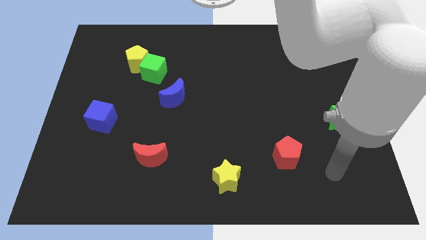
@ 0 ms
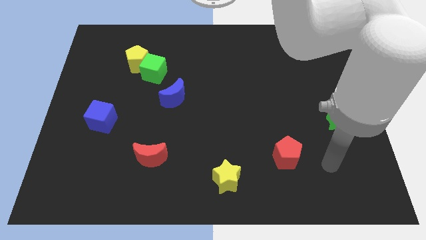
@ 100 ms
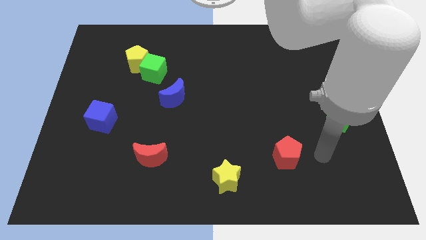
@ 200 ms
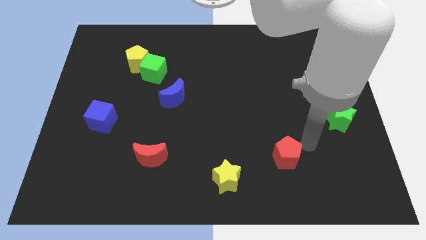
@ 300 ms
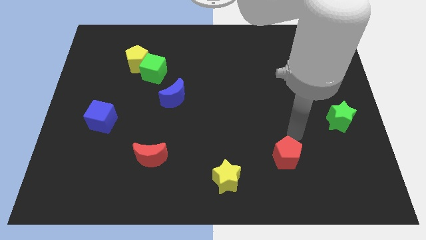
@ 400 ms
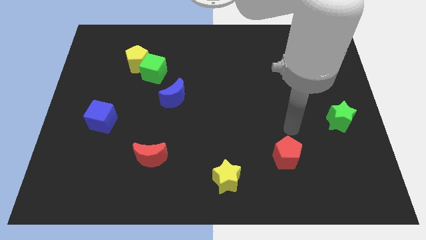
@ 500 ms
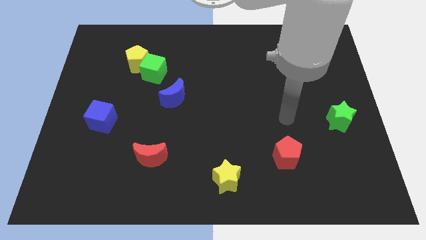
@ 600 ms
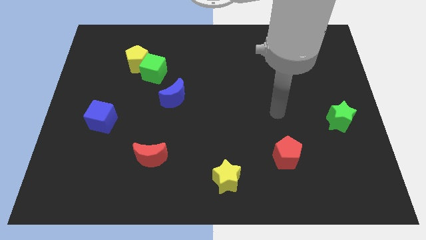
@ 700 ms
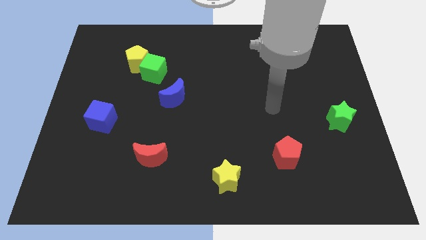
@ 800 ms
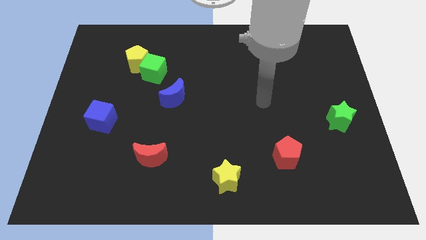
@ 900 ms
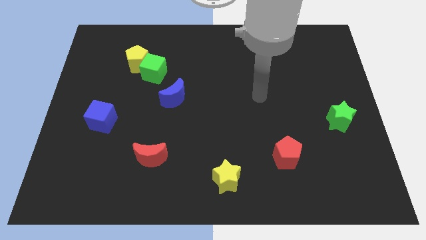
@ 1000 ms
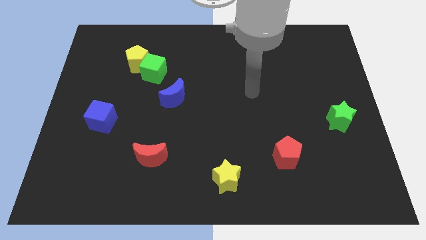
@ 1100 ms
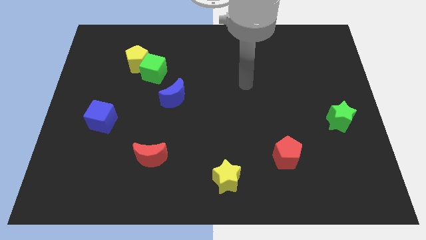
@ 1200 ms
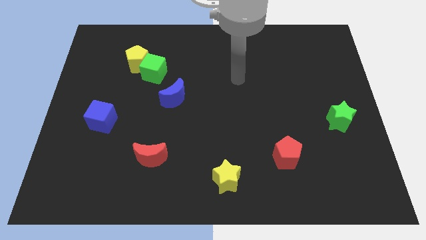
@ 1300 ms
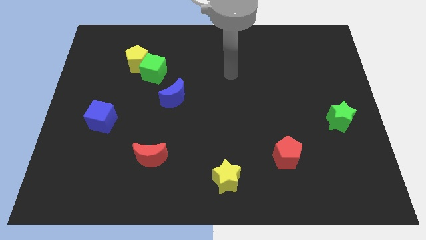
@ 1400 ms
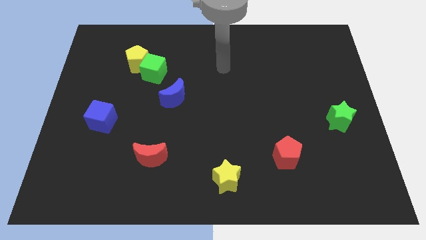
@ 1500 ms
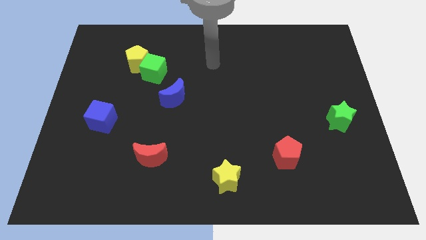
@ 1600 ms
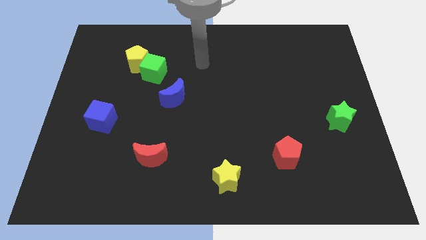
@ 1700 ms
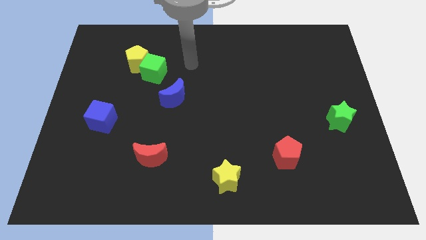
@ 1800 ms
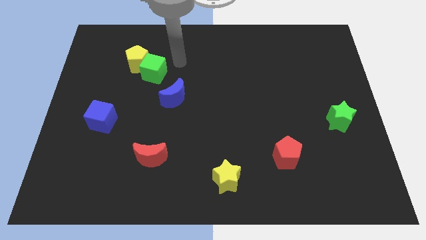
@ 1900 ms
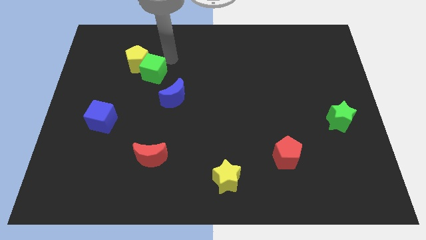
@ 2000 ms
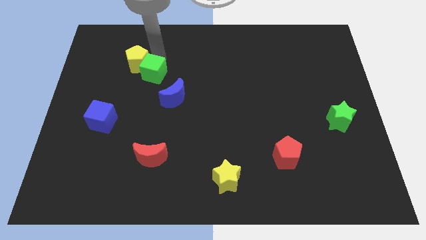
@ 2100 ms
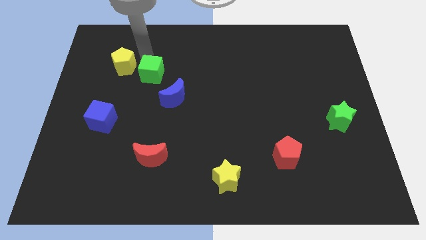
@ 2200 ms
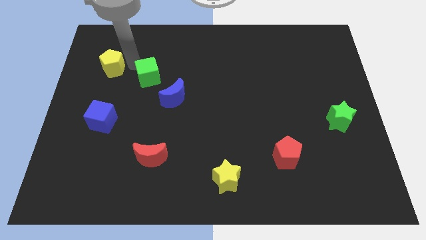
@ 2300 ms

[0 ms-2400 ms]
separate the green cube from the yellow pentagon

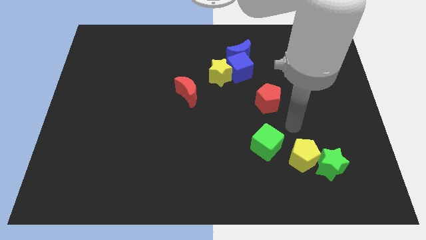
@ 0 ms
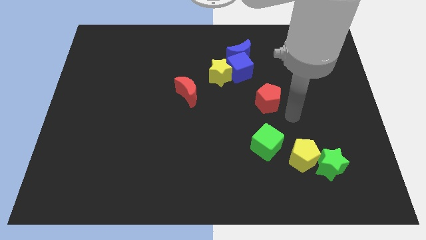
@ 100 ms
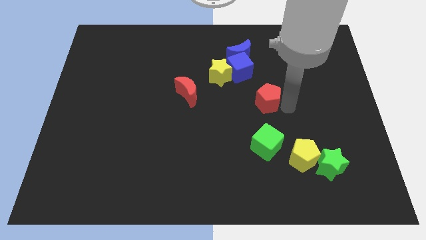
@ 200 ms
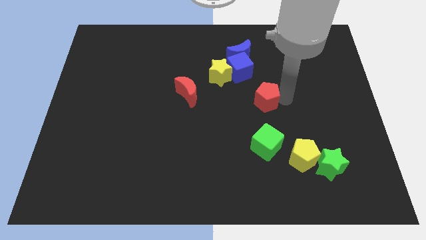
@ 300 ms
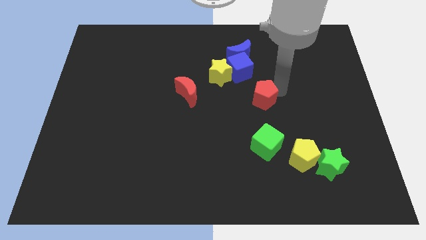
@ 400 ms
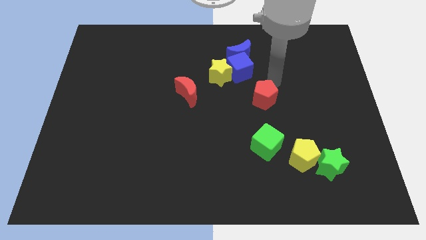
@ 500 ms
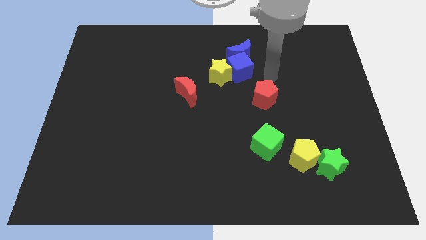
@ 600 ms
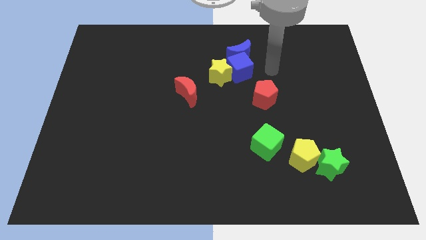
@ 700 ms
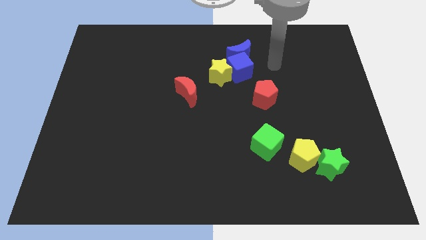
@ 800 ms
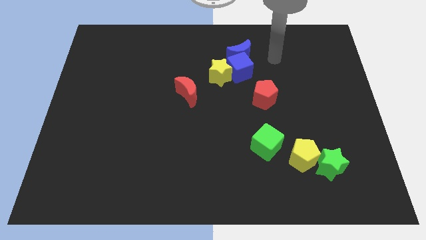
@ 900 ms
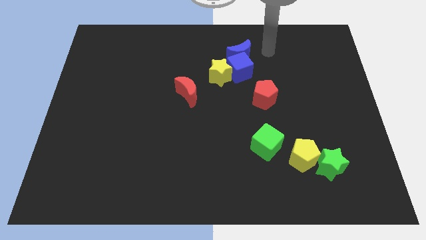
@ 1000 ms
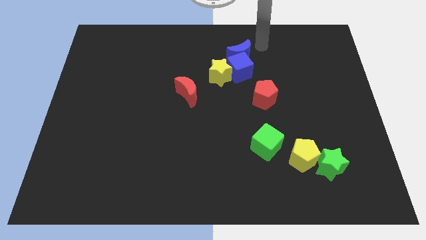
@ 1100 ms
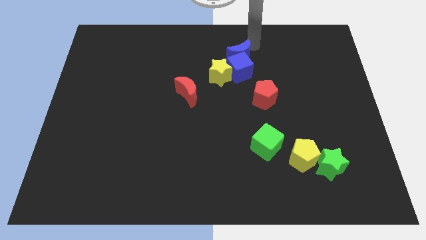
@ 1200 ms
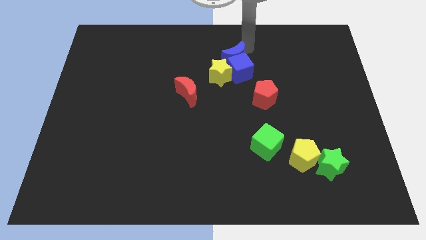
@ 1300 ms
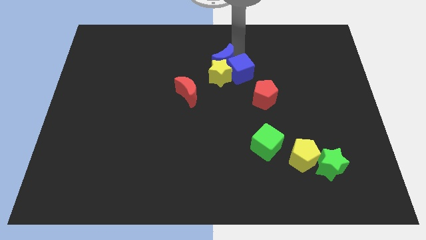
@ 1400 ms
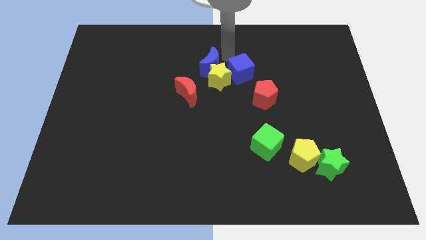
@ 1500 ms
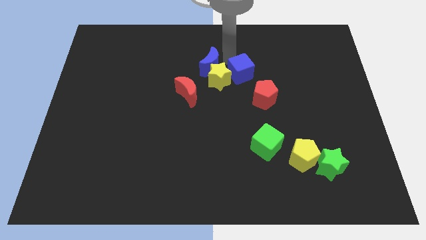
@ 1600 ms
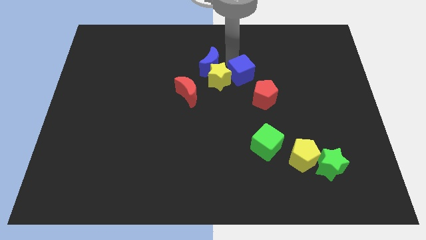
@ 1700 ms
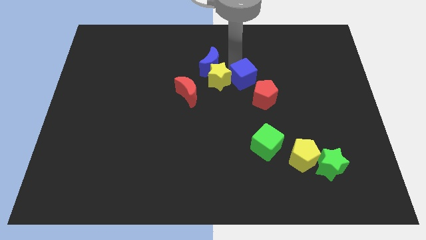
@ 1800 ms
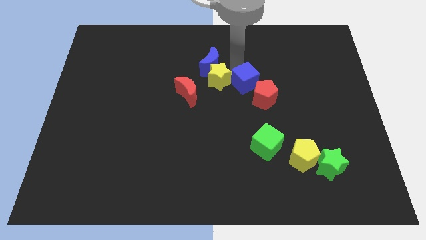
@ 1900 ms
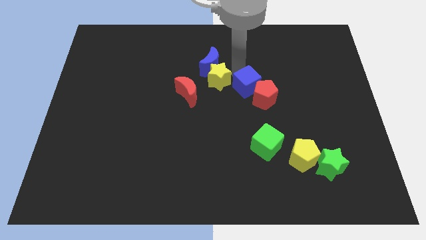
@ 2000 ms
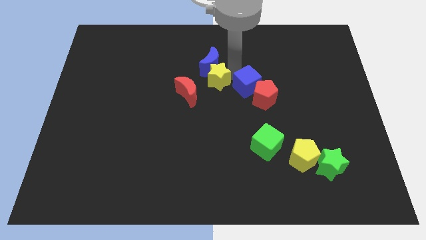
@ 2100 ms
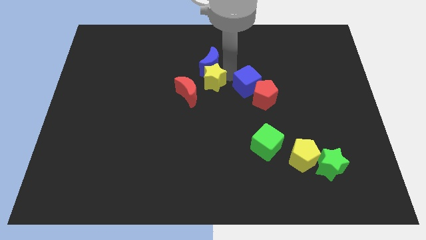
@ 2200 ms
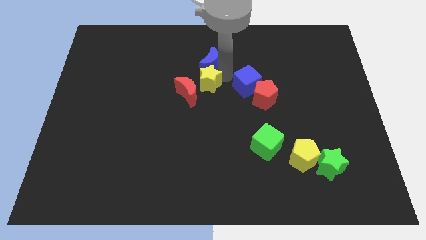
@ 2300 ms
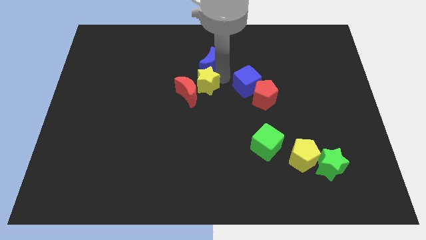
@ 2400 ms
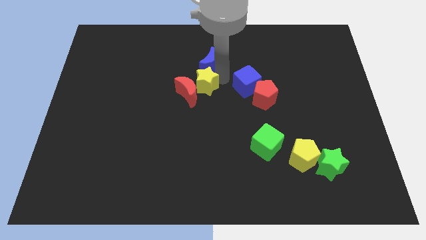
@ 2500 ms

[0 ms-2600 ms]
move the blue cube away from the blue moon and yellow star

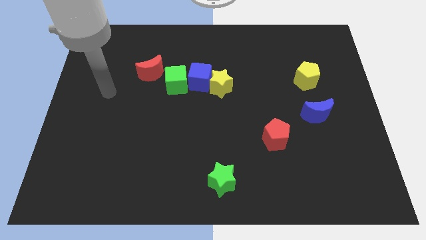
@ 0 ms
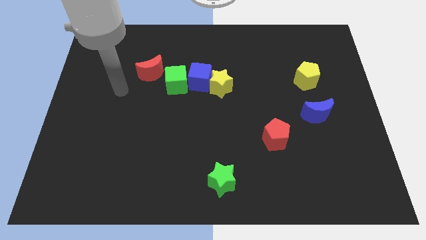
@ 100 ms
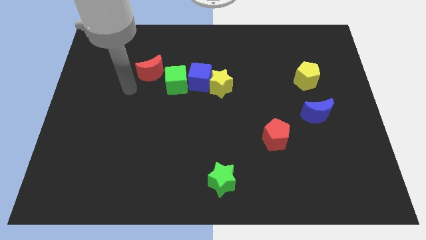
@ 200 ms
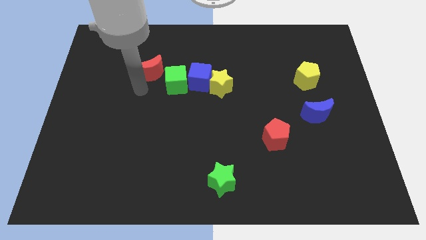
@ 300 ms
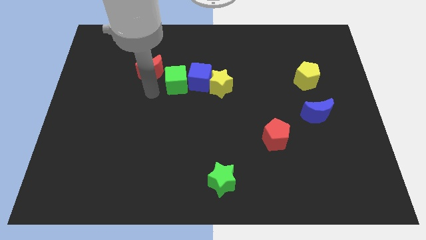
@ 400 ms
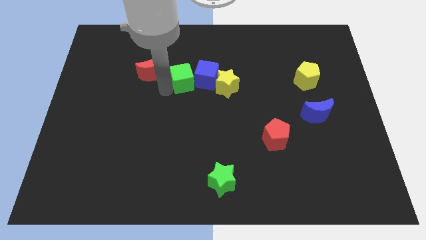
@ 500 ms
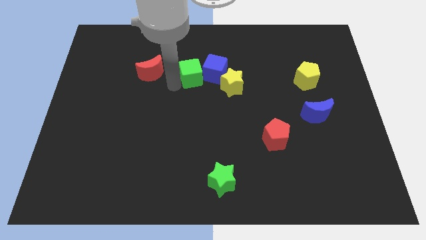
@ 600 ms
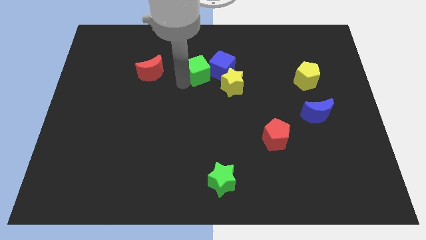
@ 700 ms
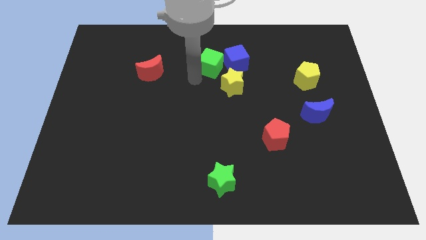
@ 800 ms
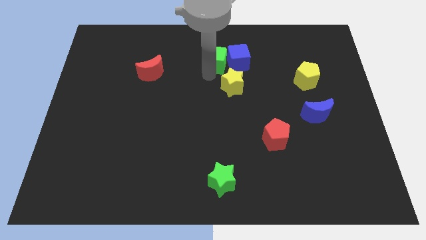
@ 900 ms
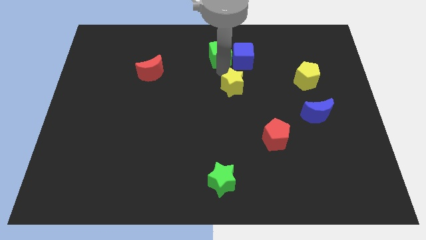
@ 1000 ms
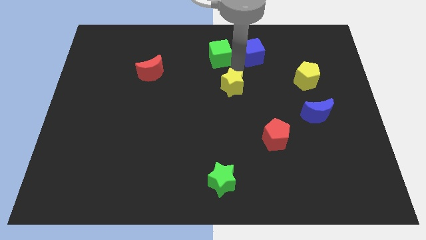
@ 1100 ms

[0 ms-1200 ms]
pull the yellow star apart from the blue cube

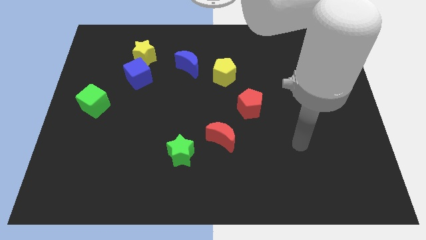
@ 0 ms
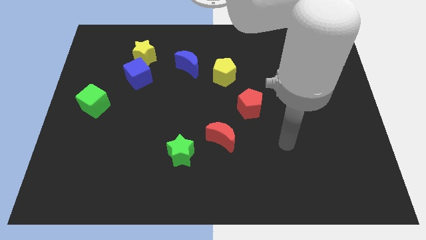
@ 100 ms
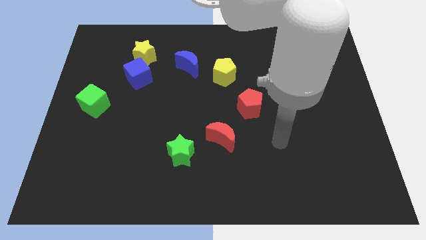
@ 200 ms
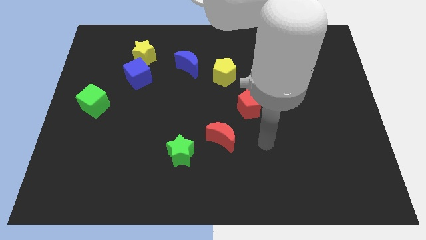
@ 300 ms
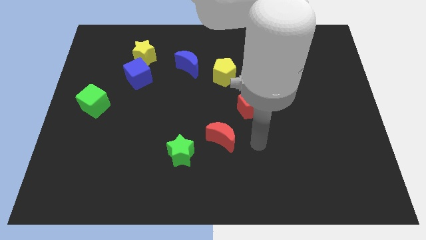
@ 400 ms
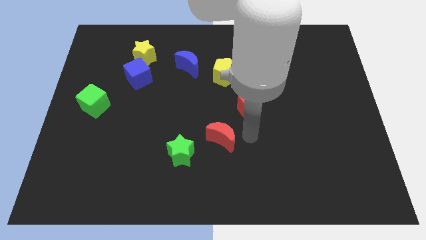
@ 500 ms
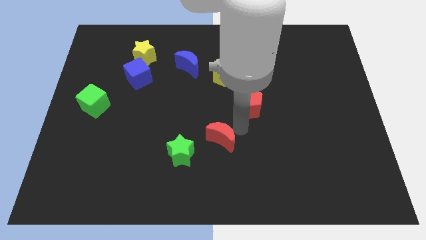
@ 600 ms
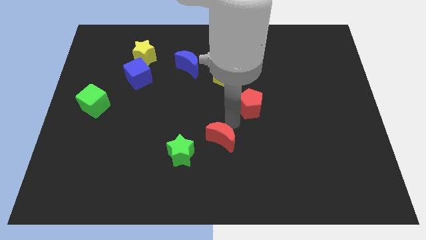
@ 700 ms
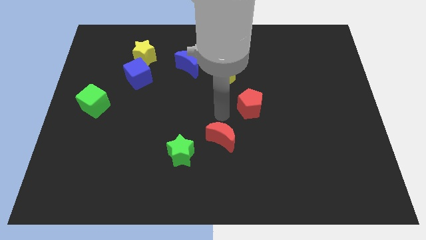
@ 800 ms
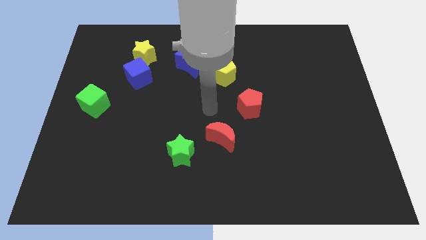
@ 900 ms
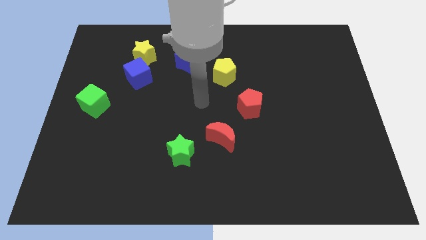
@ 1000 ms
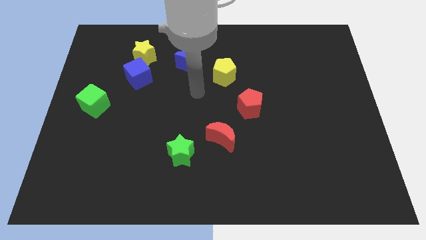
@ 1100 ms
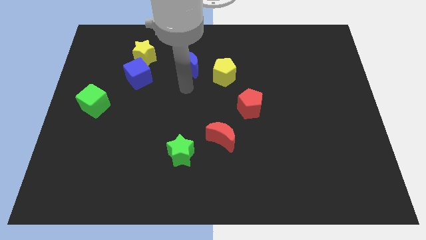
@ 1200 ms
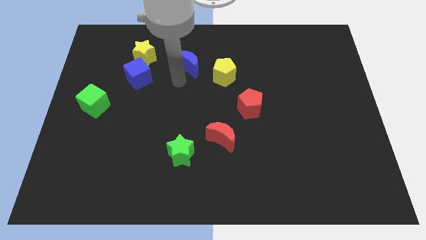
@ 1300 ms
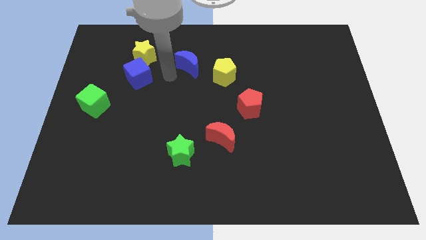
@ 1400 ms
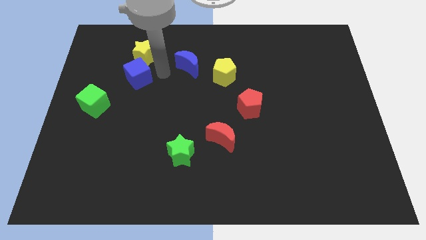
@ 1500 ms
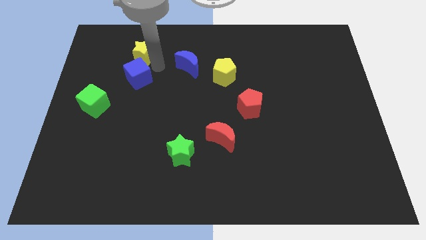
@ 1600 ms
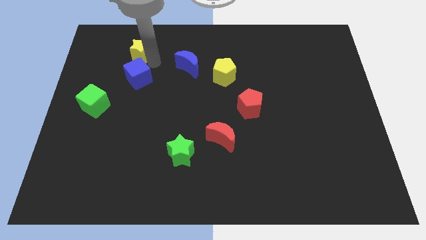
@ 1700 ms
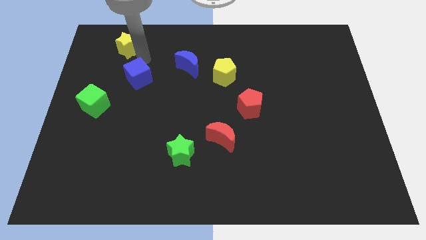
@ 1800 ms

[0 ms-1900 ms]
separate the blue cube from the yellow star

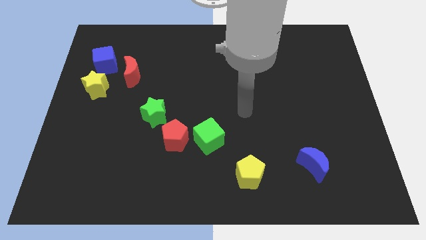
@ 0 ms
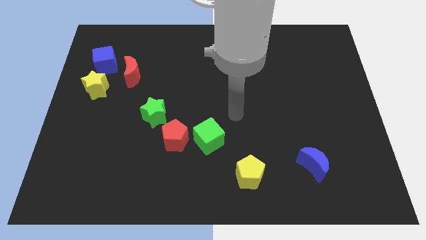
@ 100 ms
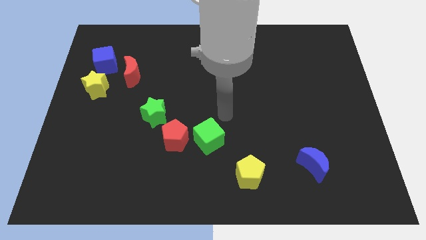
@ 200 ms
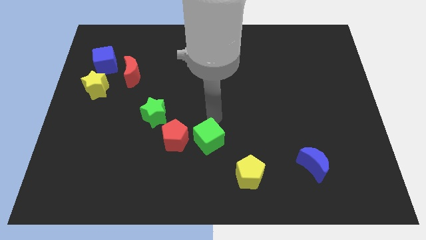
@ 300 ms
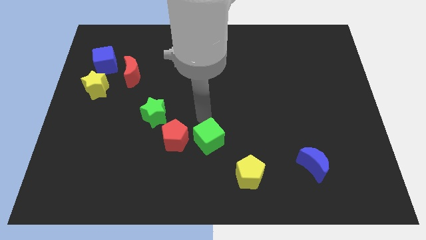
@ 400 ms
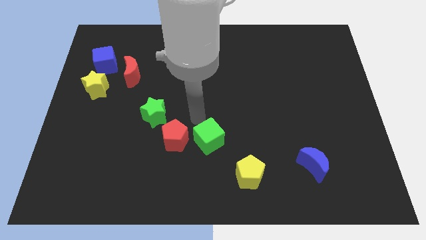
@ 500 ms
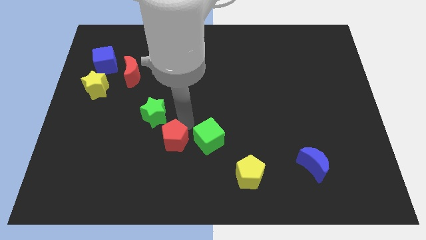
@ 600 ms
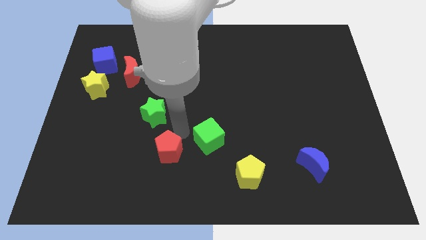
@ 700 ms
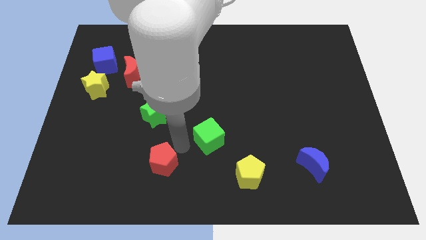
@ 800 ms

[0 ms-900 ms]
separate the green cube from the red pentagon

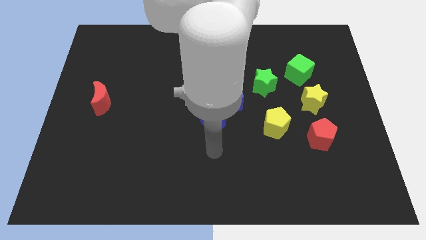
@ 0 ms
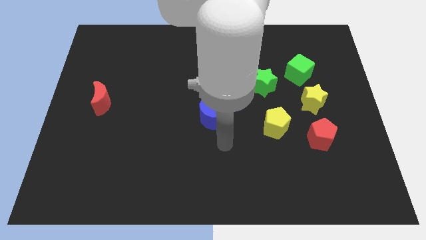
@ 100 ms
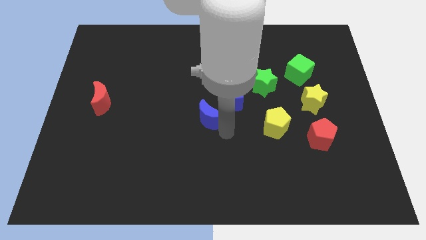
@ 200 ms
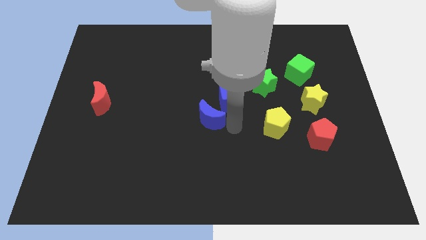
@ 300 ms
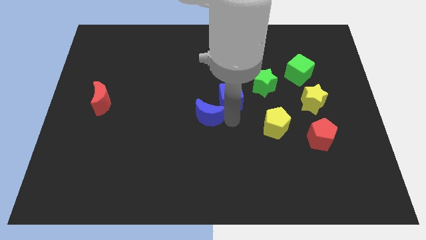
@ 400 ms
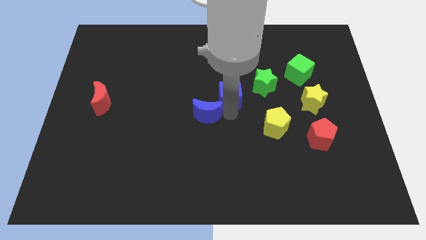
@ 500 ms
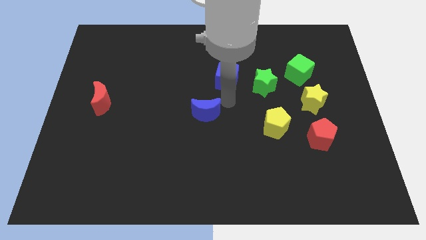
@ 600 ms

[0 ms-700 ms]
pull the blue moon apart from the blue cube
